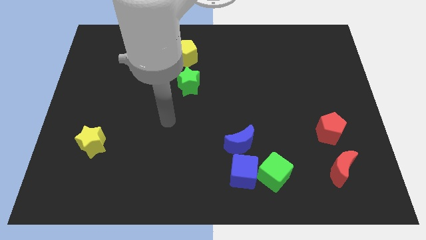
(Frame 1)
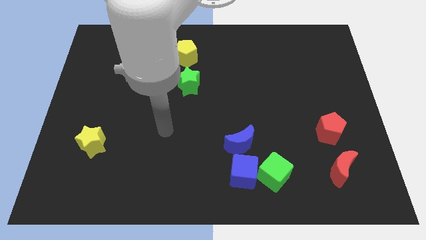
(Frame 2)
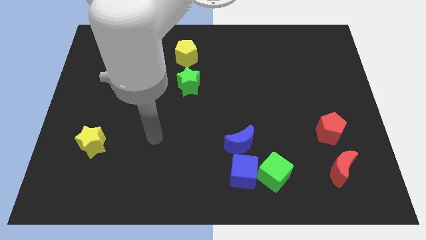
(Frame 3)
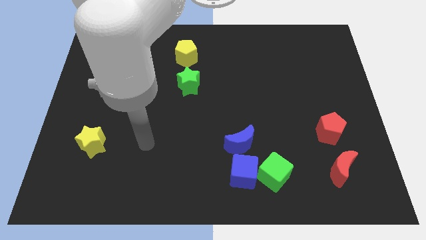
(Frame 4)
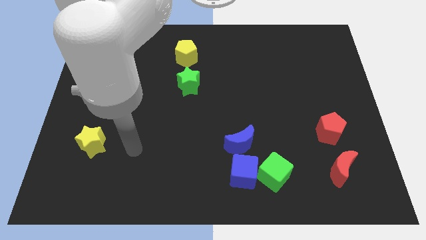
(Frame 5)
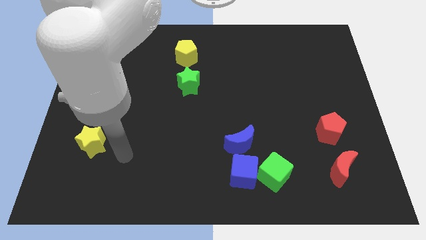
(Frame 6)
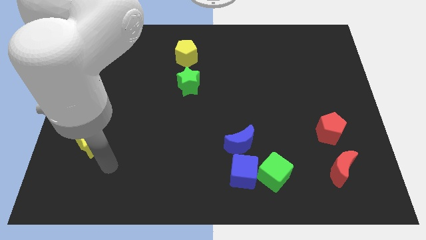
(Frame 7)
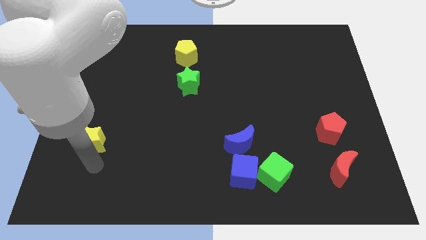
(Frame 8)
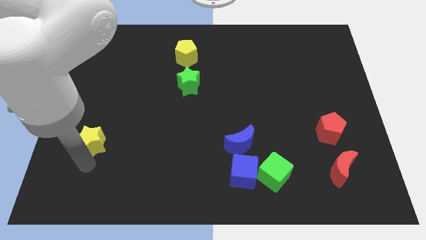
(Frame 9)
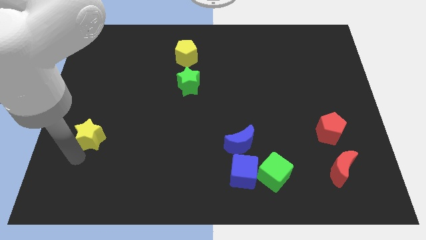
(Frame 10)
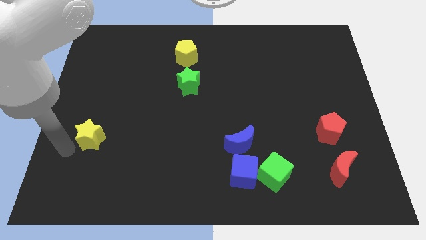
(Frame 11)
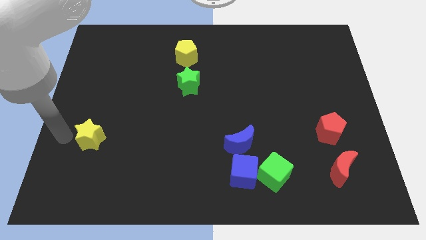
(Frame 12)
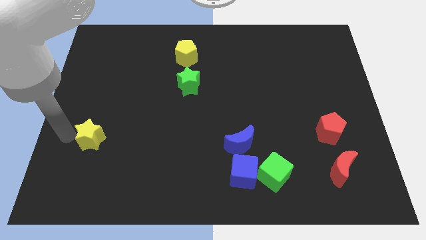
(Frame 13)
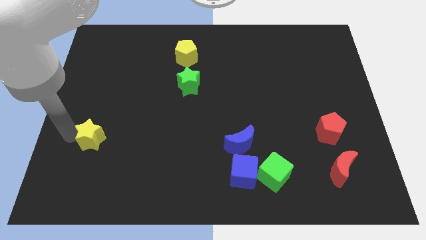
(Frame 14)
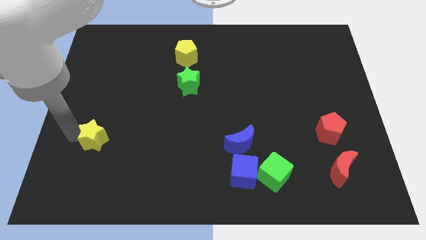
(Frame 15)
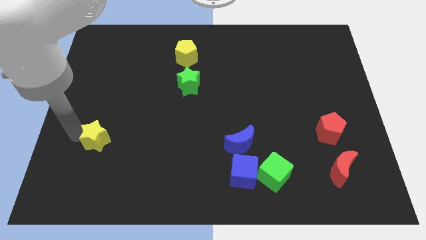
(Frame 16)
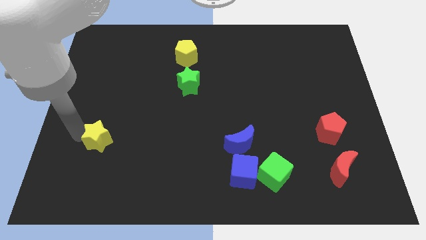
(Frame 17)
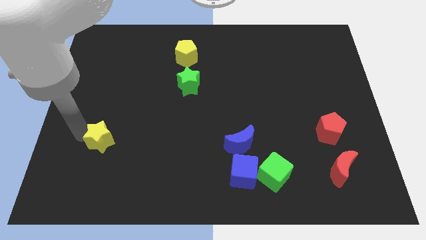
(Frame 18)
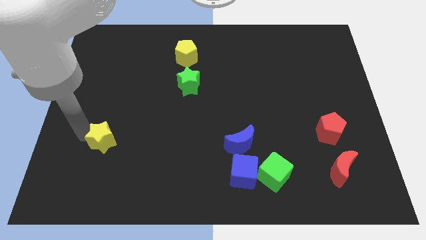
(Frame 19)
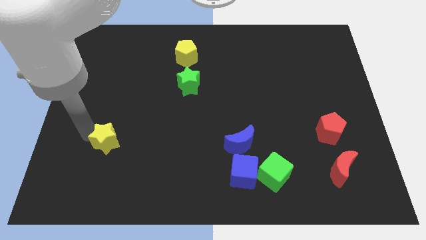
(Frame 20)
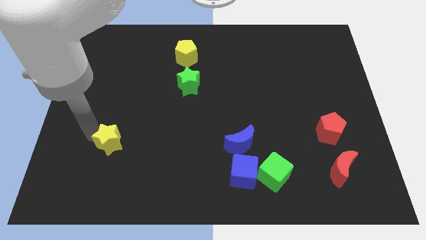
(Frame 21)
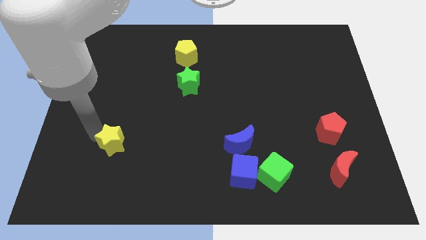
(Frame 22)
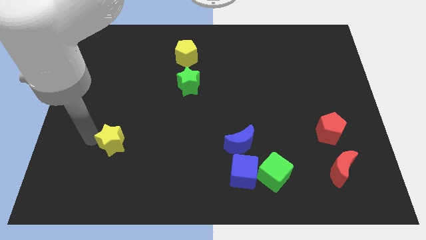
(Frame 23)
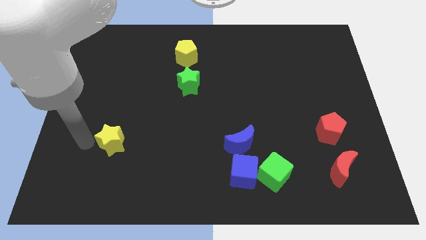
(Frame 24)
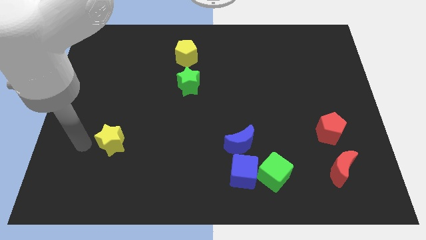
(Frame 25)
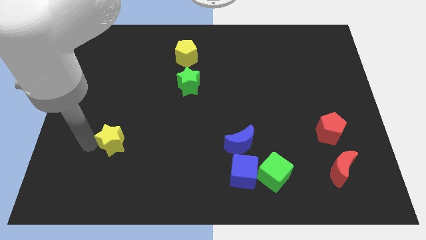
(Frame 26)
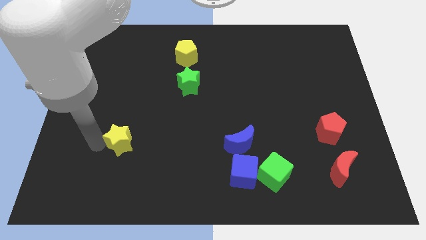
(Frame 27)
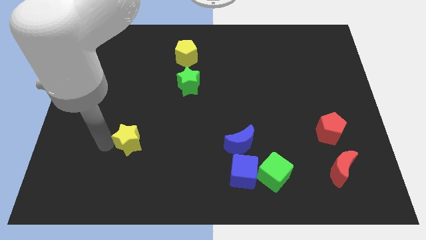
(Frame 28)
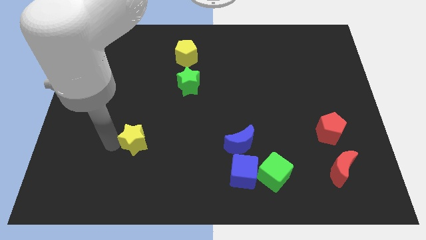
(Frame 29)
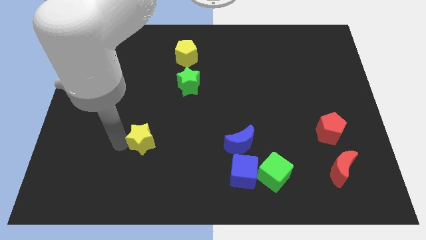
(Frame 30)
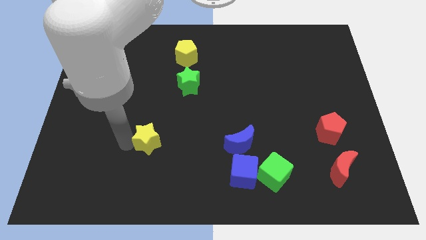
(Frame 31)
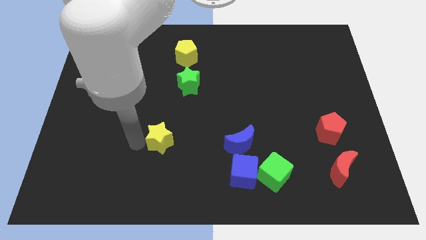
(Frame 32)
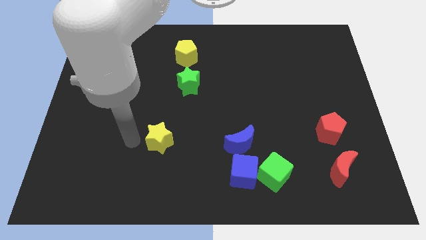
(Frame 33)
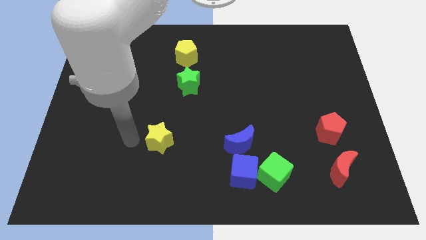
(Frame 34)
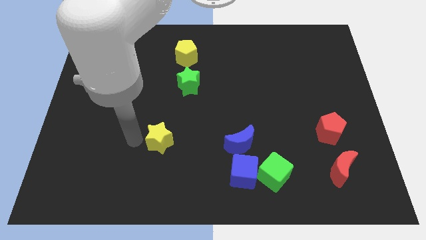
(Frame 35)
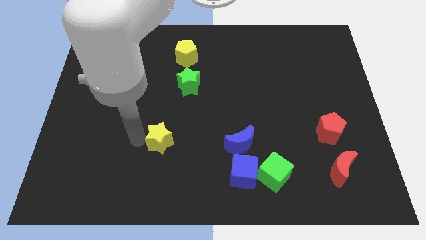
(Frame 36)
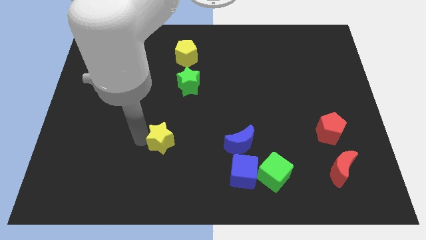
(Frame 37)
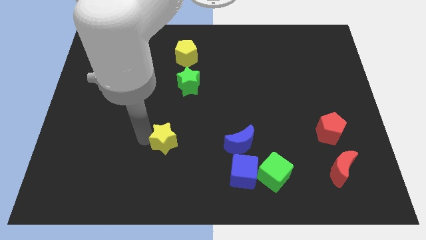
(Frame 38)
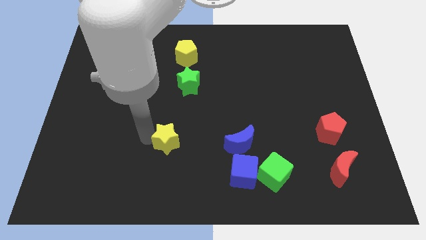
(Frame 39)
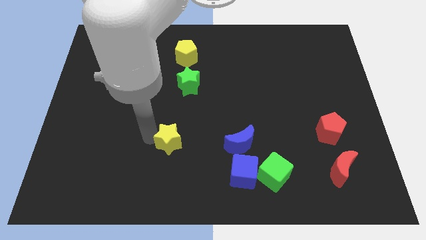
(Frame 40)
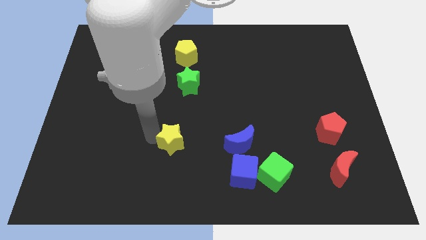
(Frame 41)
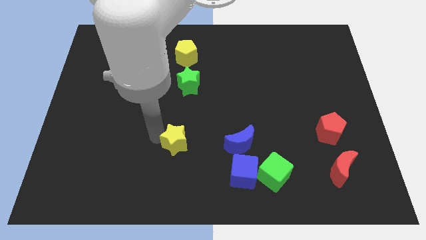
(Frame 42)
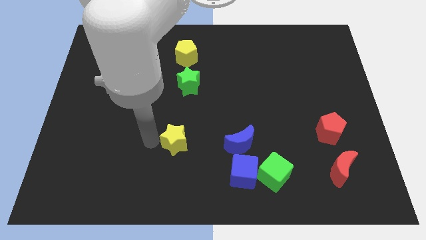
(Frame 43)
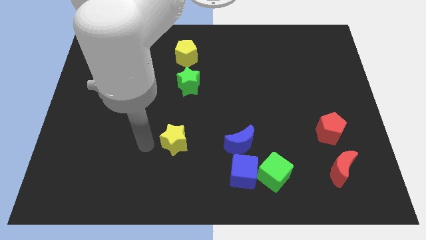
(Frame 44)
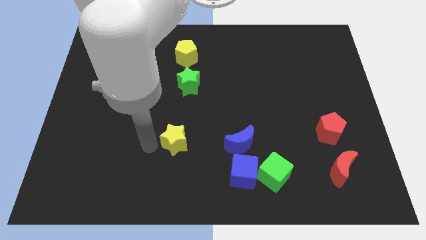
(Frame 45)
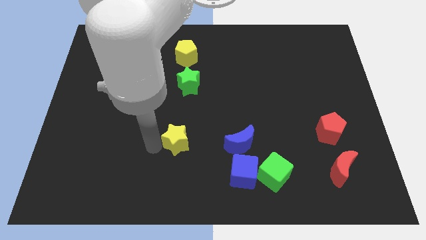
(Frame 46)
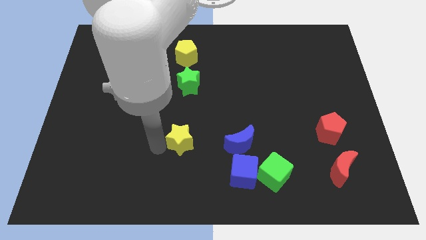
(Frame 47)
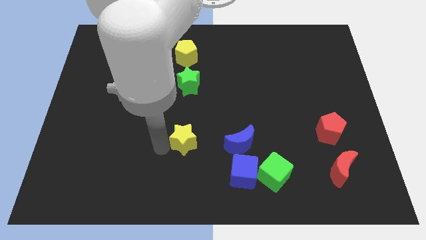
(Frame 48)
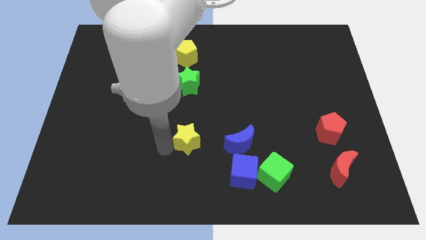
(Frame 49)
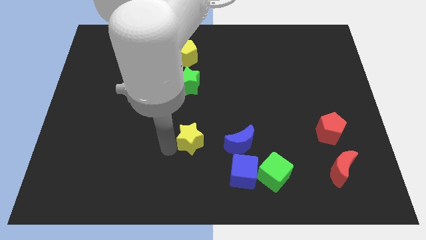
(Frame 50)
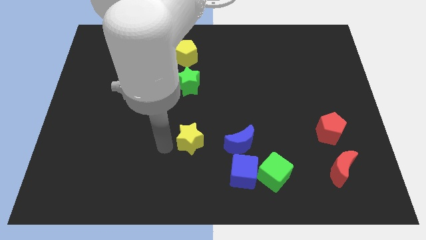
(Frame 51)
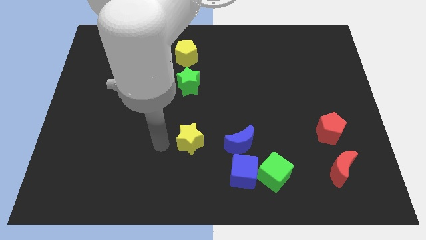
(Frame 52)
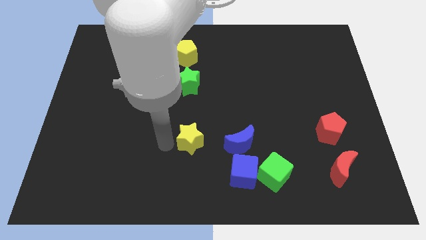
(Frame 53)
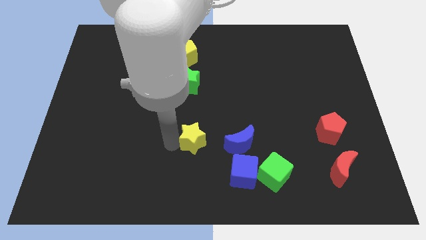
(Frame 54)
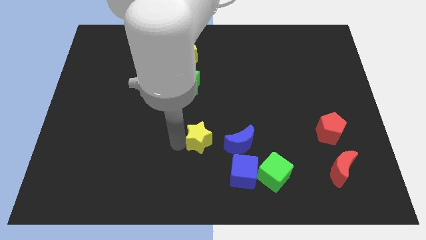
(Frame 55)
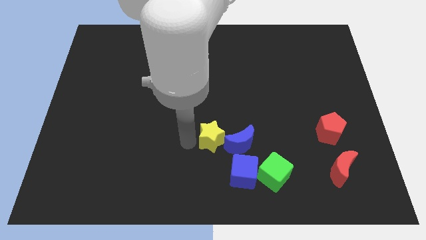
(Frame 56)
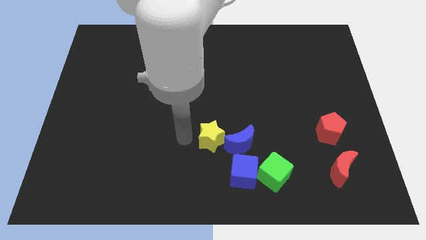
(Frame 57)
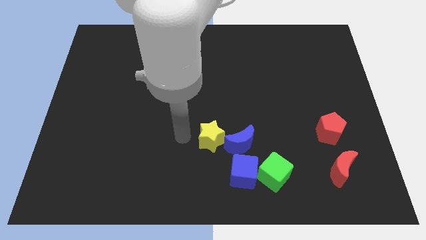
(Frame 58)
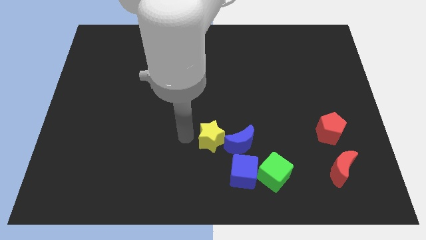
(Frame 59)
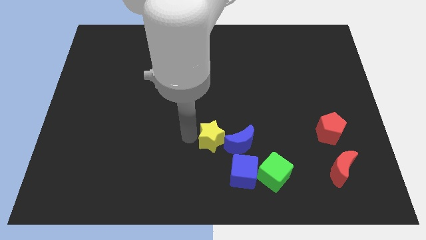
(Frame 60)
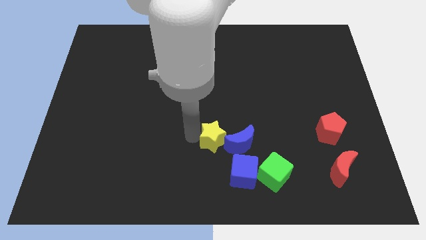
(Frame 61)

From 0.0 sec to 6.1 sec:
slide the yellow star close to the blue moon

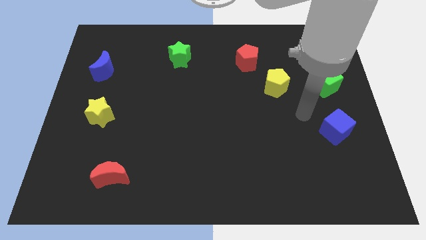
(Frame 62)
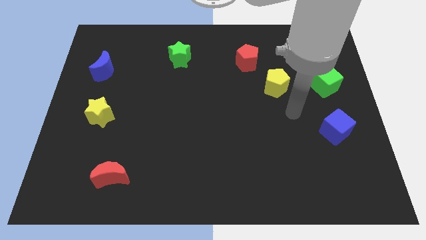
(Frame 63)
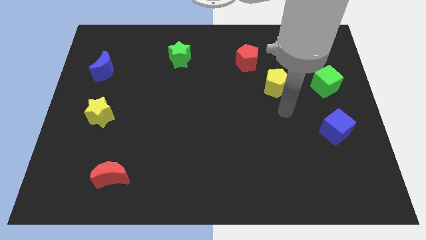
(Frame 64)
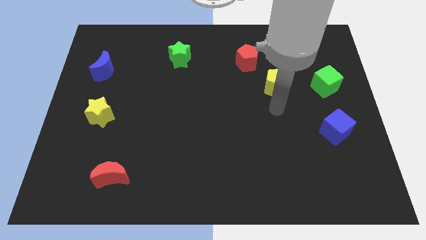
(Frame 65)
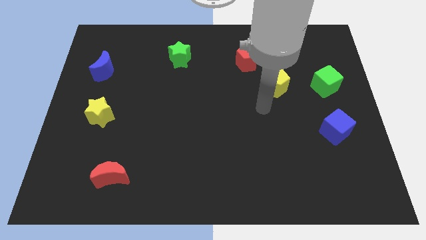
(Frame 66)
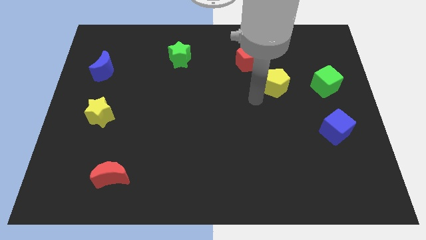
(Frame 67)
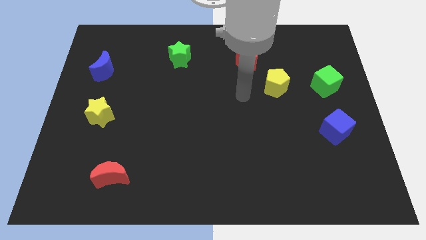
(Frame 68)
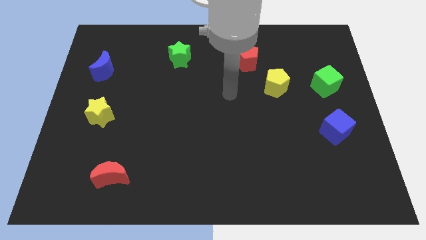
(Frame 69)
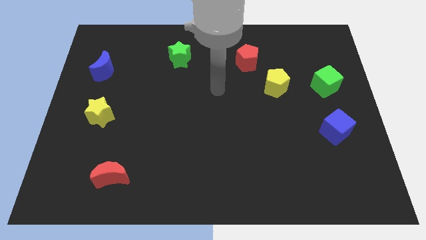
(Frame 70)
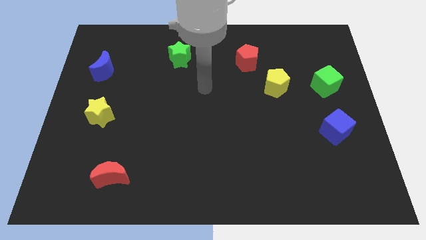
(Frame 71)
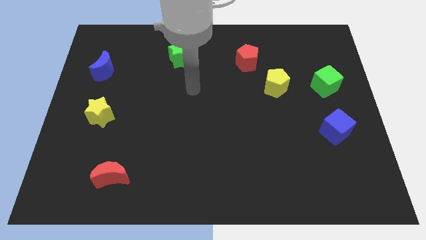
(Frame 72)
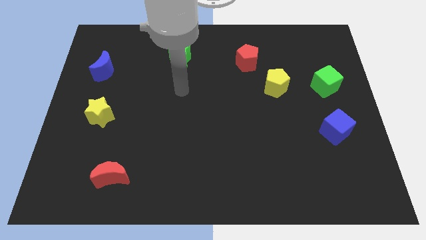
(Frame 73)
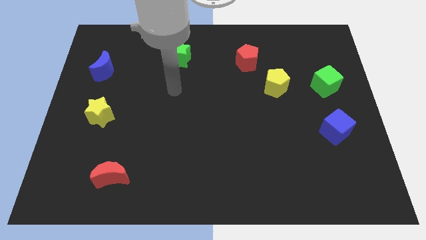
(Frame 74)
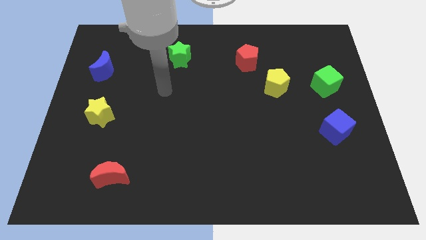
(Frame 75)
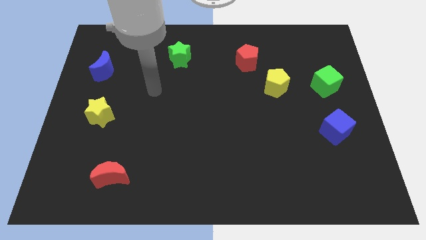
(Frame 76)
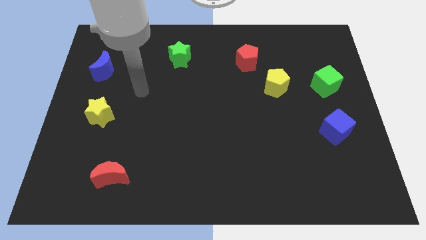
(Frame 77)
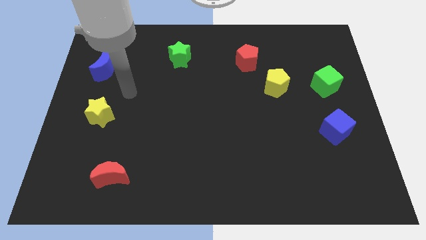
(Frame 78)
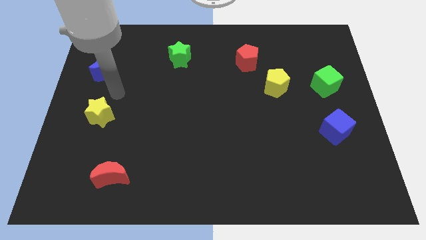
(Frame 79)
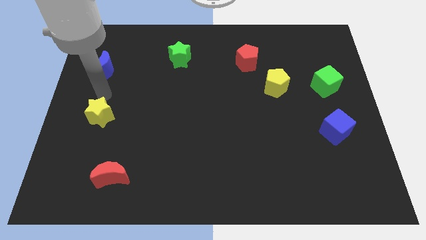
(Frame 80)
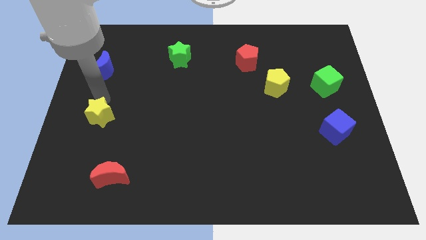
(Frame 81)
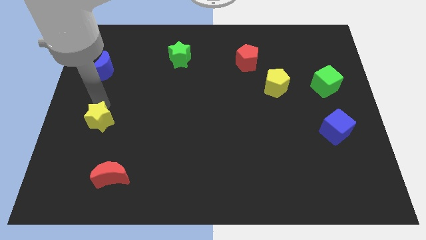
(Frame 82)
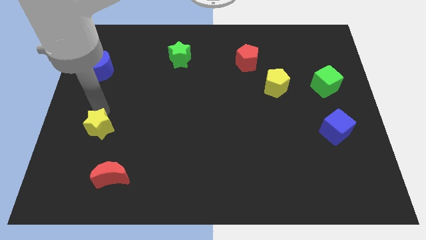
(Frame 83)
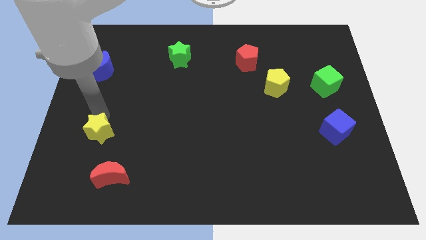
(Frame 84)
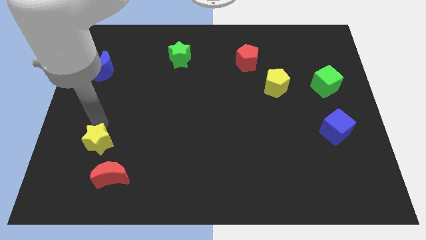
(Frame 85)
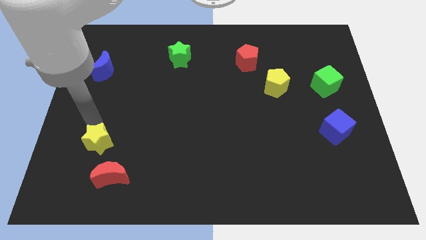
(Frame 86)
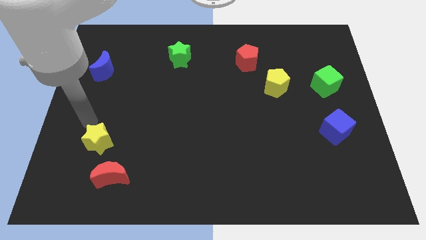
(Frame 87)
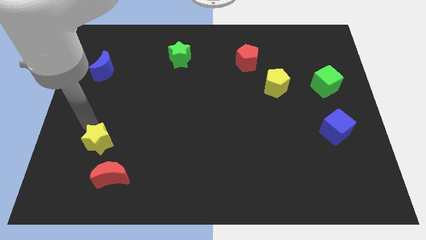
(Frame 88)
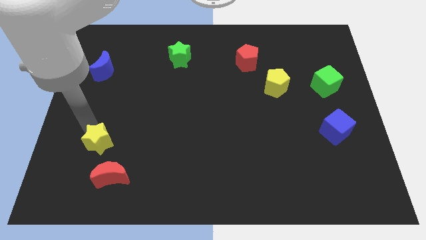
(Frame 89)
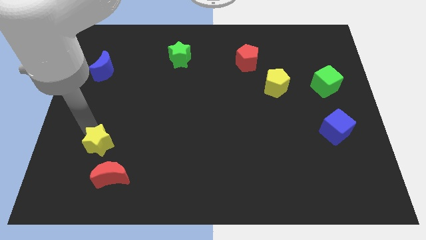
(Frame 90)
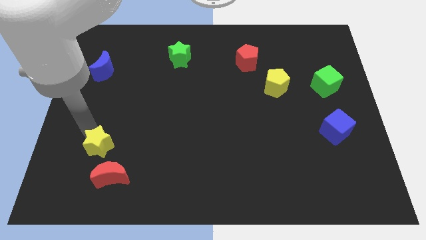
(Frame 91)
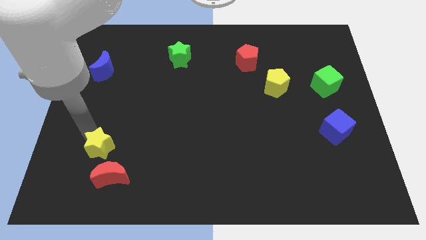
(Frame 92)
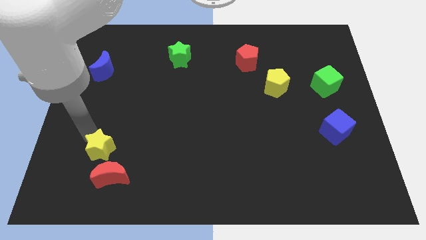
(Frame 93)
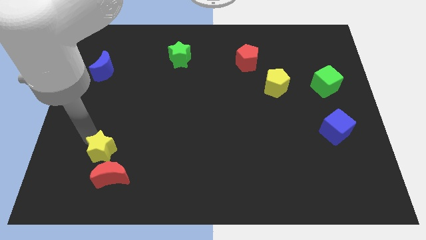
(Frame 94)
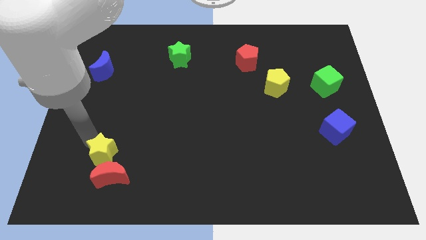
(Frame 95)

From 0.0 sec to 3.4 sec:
slide the yellow star towards the red moon
